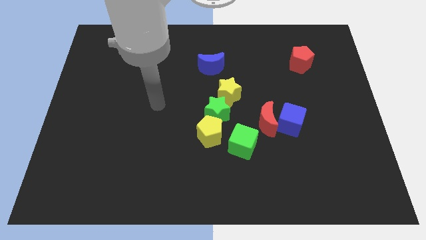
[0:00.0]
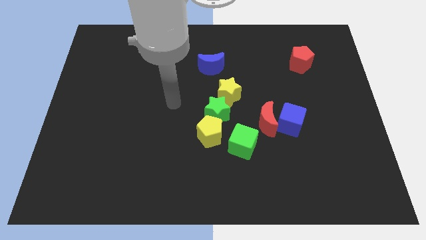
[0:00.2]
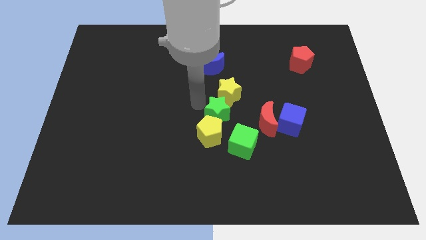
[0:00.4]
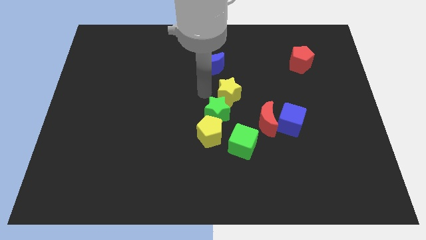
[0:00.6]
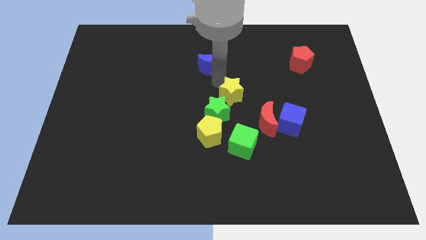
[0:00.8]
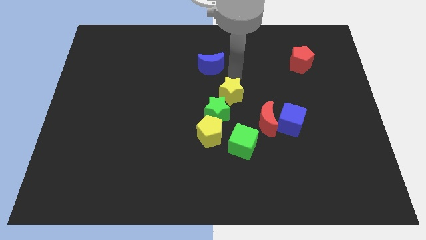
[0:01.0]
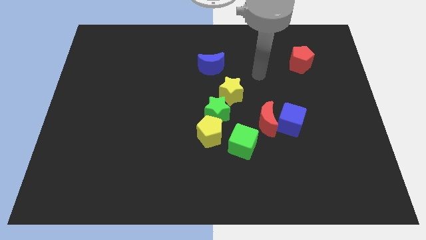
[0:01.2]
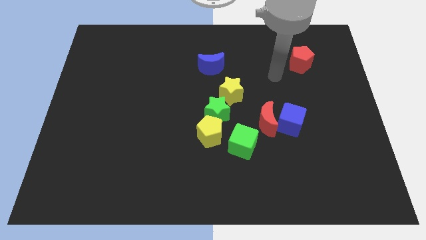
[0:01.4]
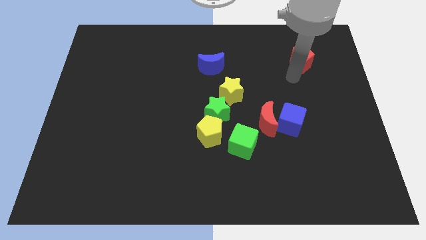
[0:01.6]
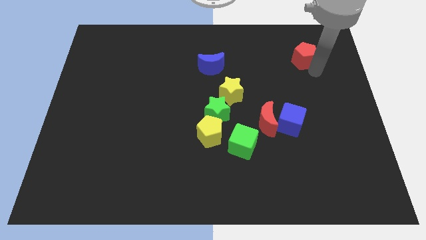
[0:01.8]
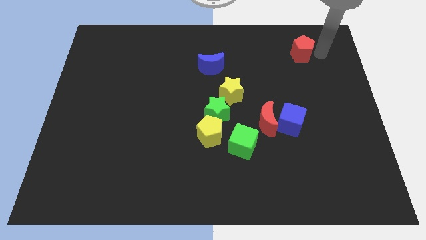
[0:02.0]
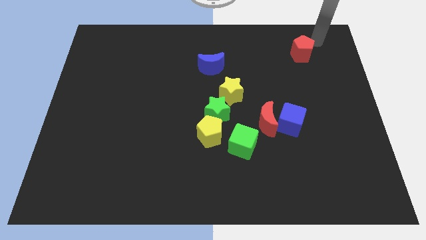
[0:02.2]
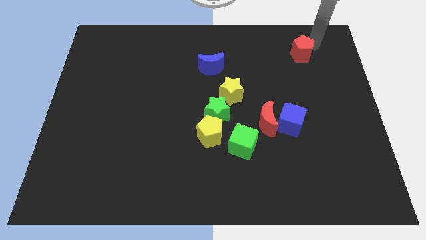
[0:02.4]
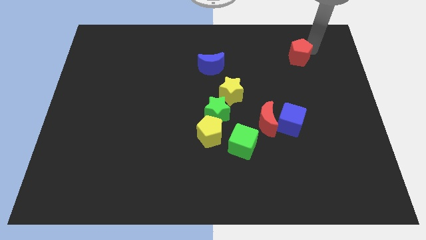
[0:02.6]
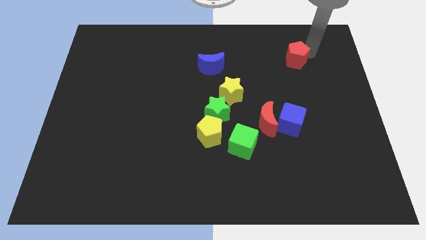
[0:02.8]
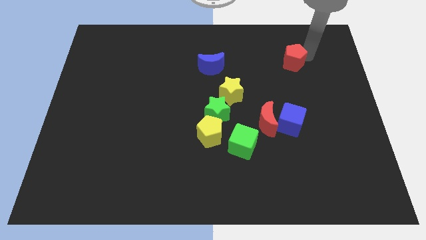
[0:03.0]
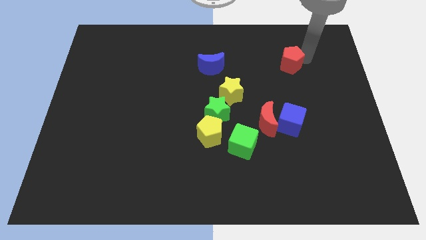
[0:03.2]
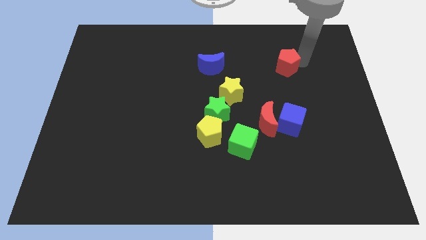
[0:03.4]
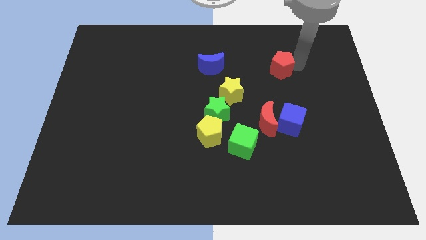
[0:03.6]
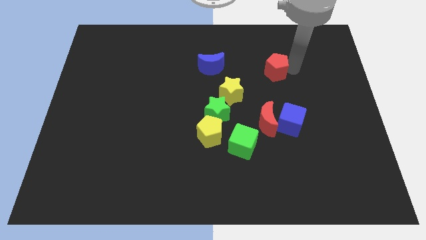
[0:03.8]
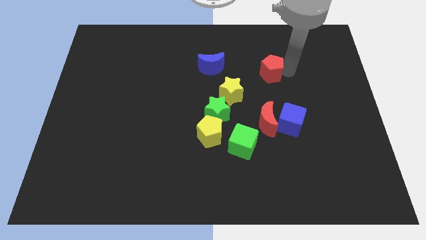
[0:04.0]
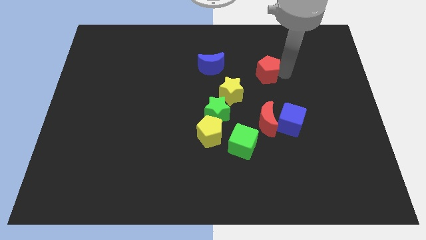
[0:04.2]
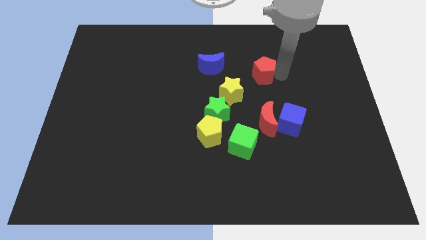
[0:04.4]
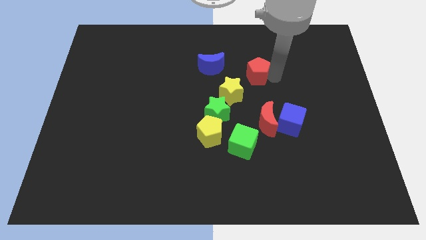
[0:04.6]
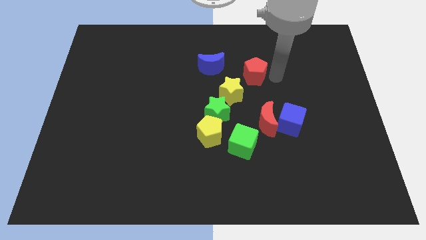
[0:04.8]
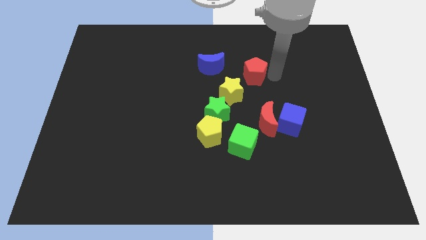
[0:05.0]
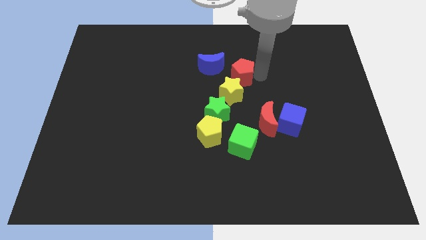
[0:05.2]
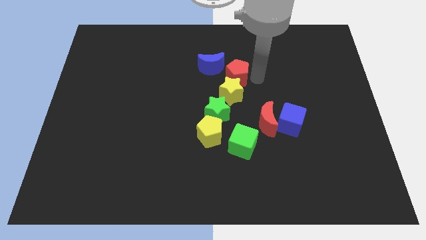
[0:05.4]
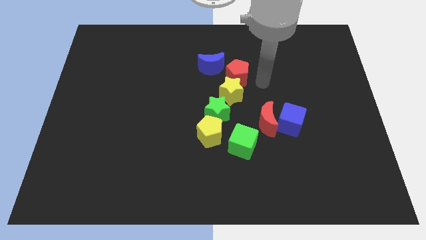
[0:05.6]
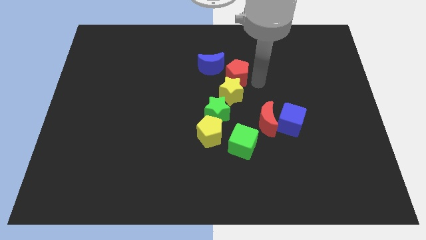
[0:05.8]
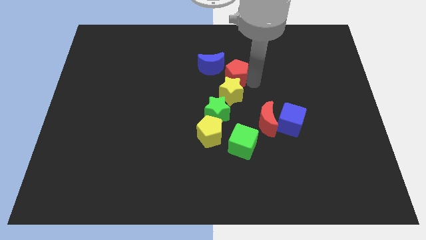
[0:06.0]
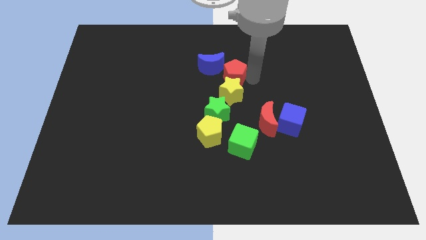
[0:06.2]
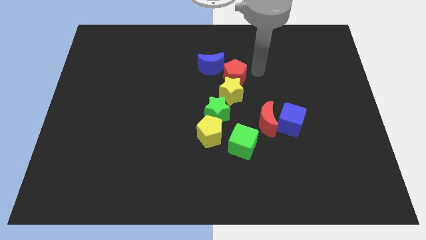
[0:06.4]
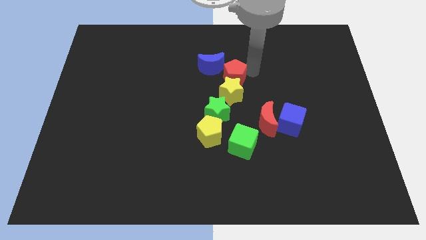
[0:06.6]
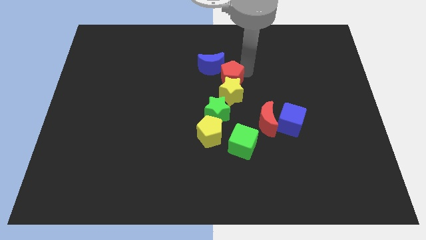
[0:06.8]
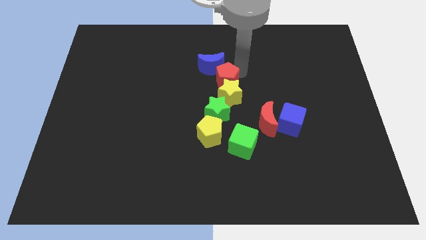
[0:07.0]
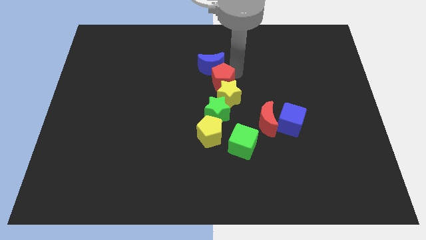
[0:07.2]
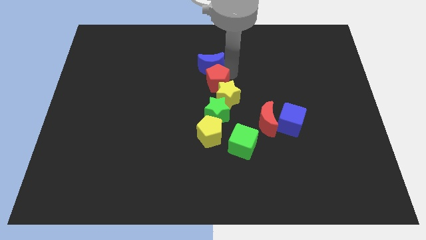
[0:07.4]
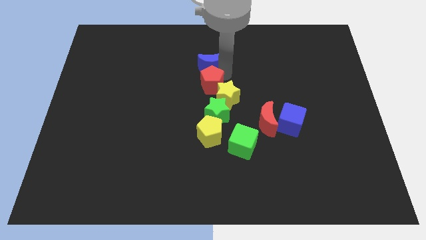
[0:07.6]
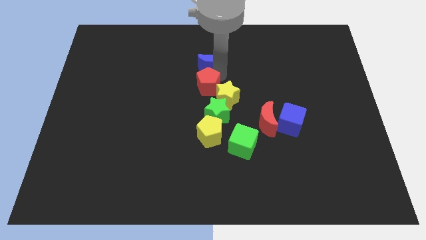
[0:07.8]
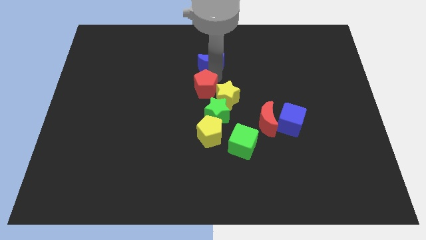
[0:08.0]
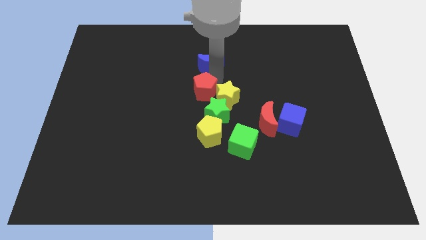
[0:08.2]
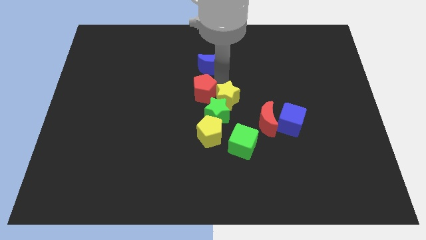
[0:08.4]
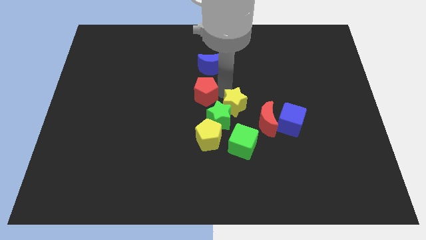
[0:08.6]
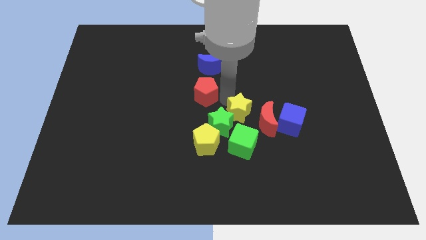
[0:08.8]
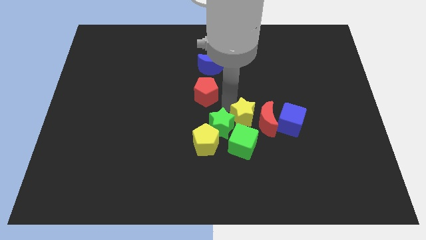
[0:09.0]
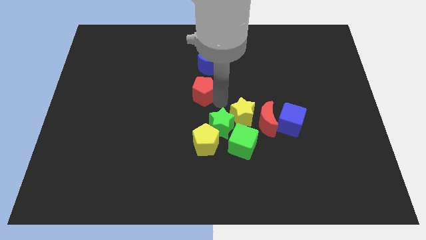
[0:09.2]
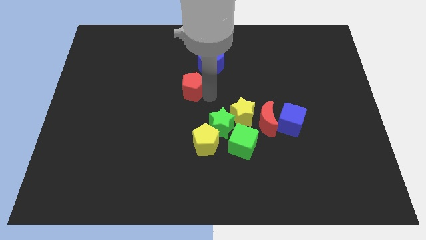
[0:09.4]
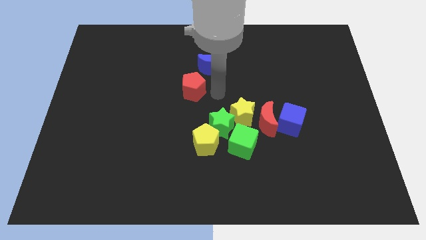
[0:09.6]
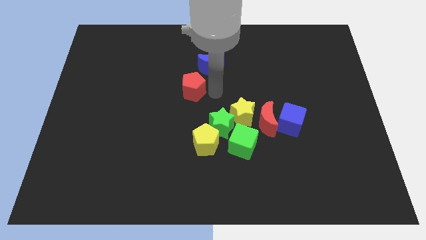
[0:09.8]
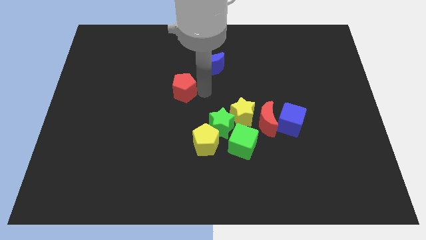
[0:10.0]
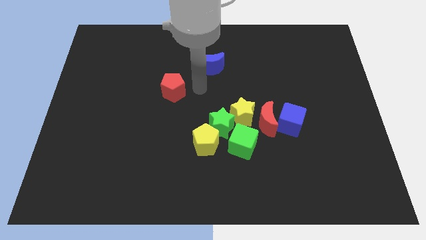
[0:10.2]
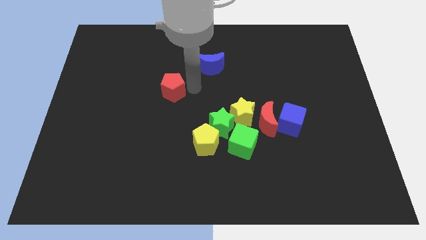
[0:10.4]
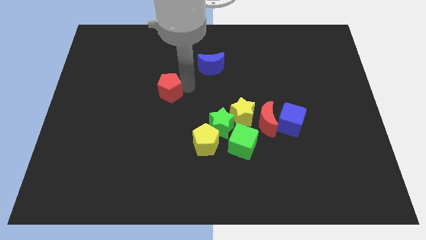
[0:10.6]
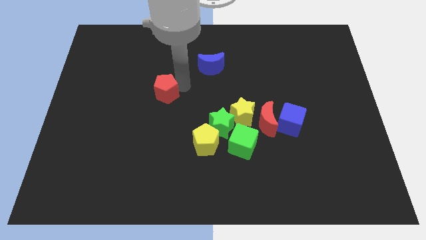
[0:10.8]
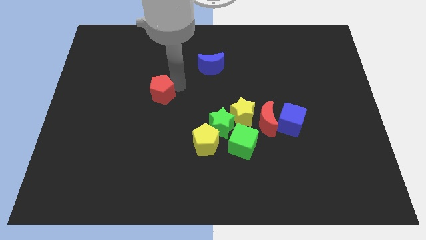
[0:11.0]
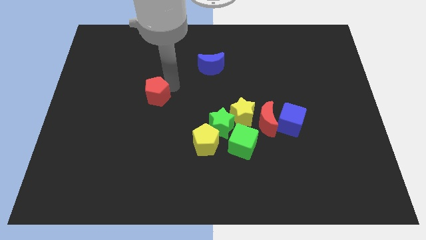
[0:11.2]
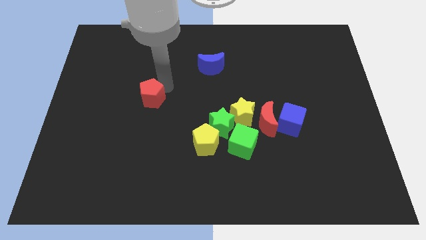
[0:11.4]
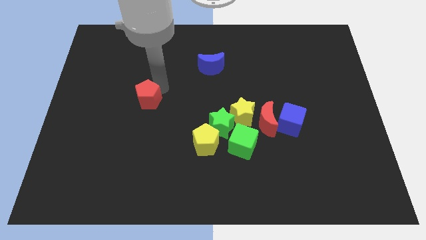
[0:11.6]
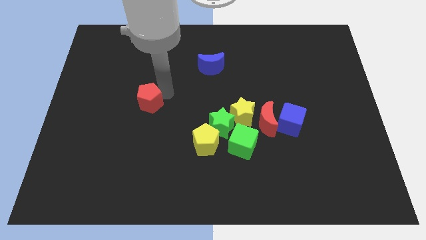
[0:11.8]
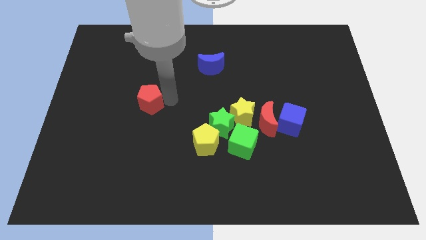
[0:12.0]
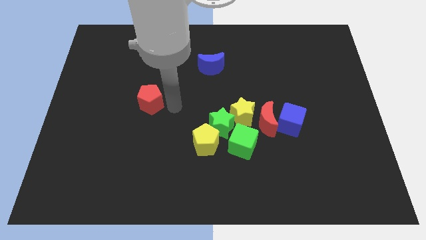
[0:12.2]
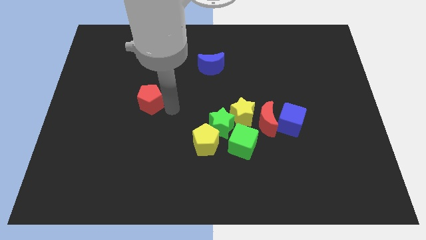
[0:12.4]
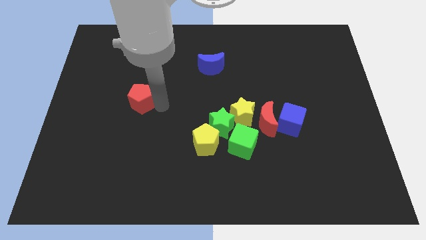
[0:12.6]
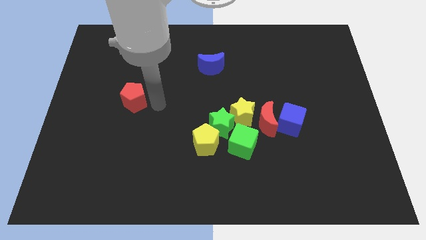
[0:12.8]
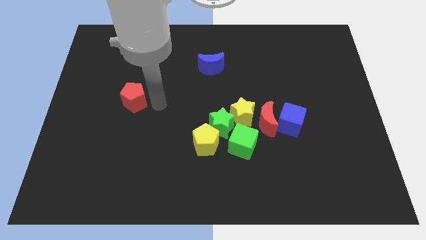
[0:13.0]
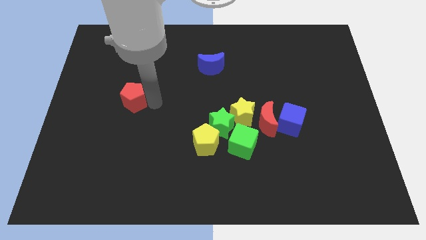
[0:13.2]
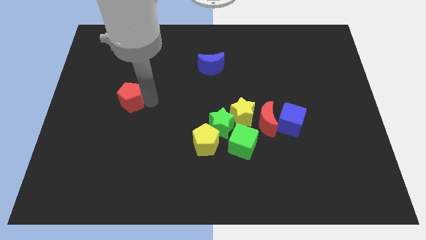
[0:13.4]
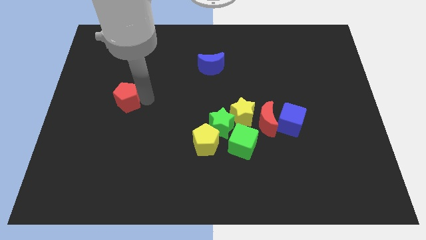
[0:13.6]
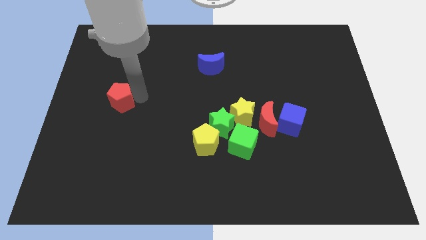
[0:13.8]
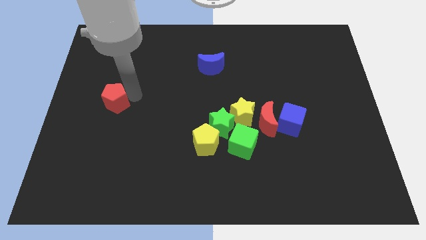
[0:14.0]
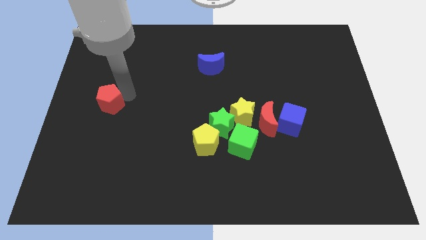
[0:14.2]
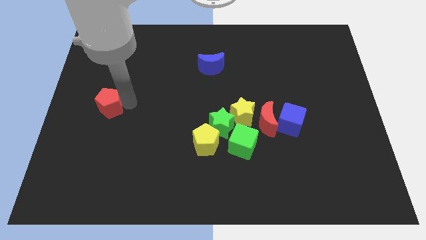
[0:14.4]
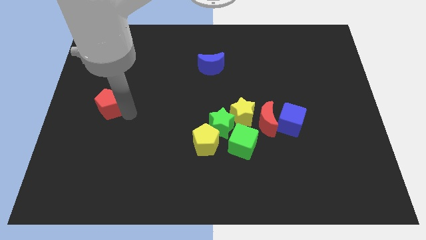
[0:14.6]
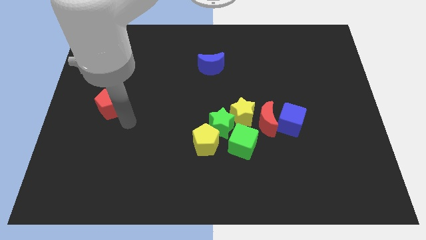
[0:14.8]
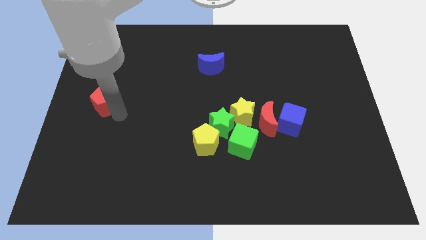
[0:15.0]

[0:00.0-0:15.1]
put the red pentagon to the left side
